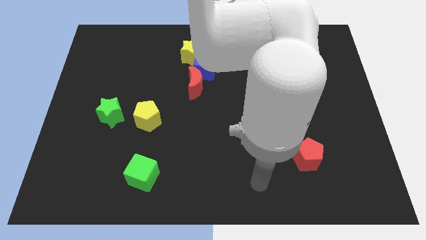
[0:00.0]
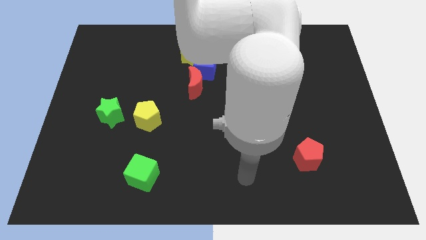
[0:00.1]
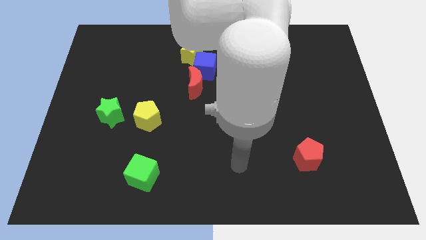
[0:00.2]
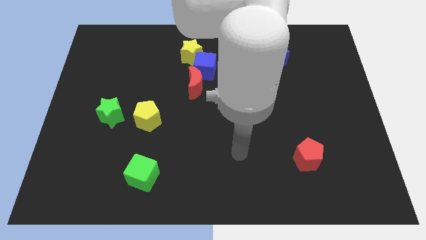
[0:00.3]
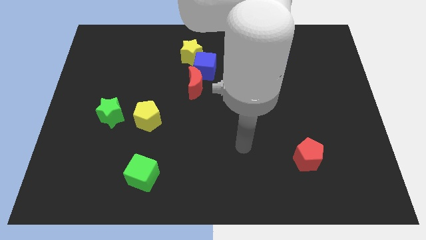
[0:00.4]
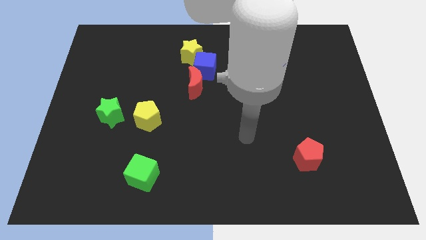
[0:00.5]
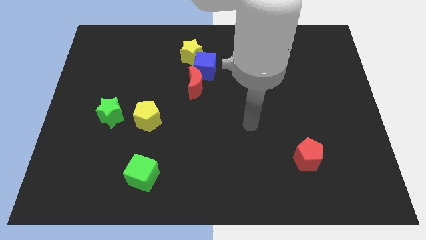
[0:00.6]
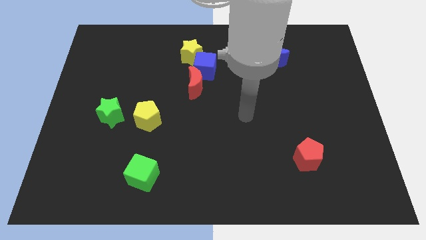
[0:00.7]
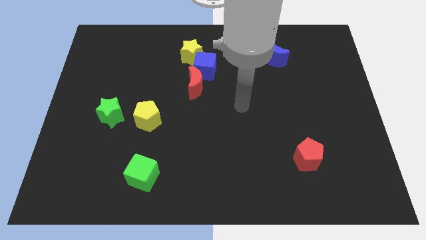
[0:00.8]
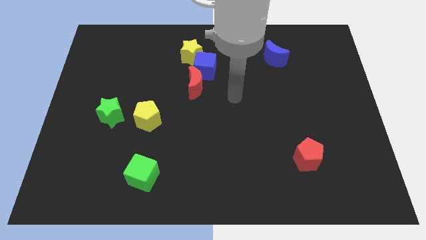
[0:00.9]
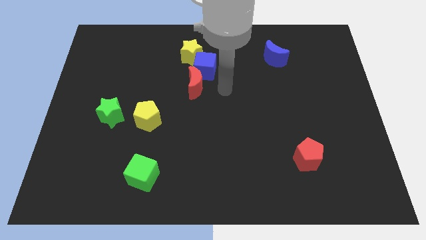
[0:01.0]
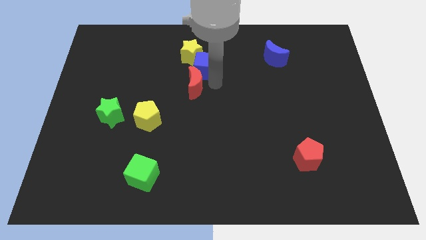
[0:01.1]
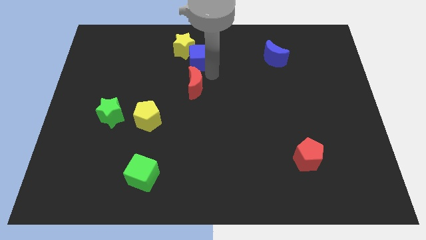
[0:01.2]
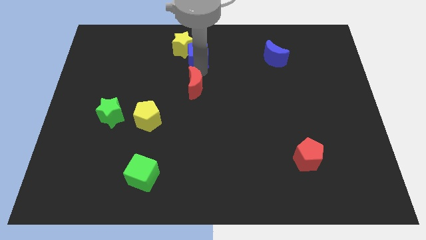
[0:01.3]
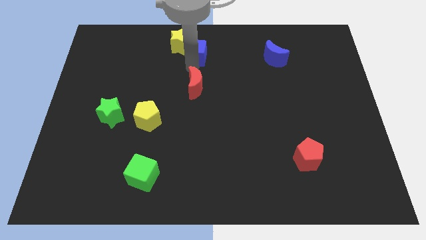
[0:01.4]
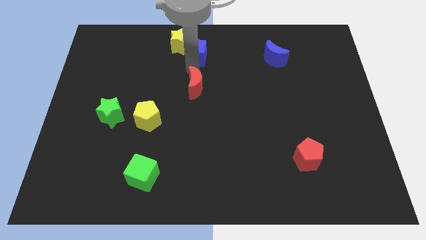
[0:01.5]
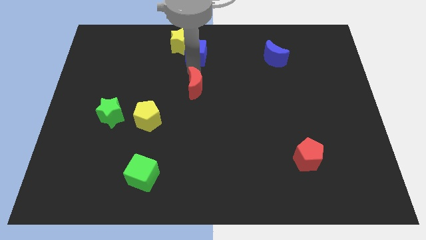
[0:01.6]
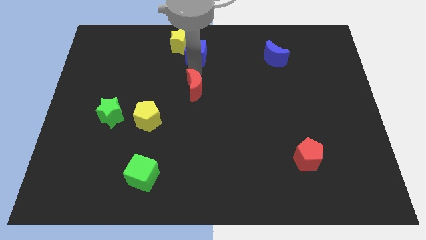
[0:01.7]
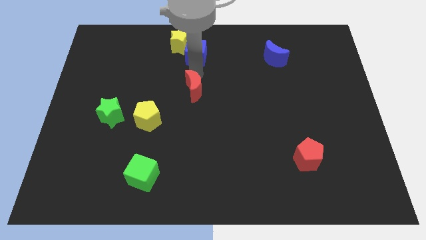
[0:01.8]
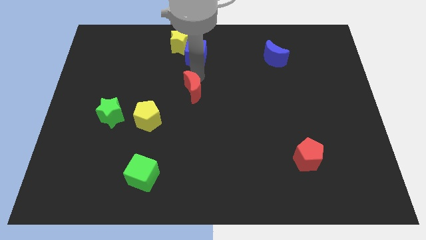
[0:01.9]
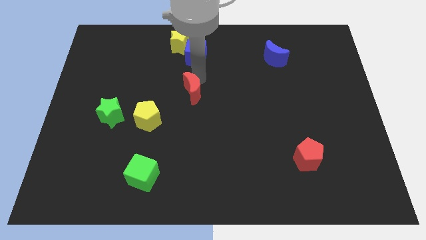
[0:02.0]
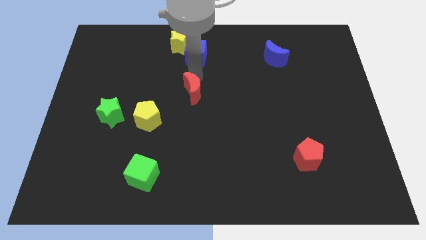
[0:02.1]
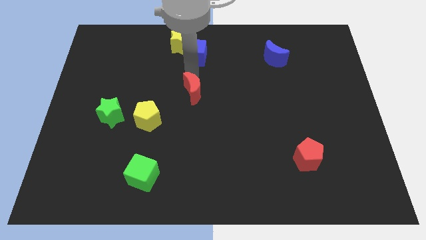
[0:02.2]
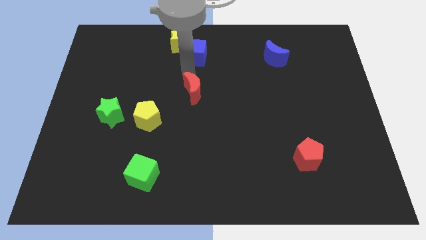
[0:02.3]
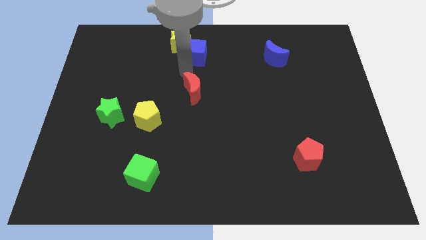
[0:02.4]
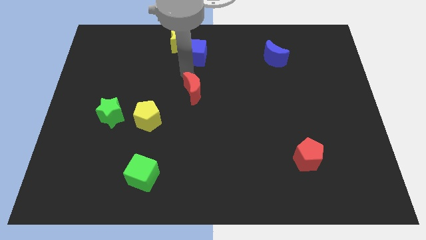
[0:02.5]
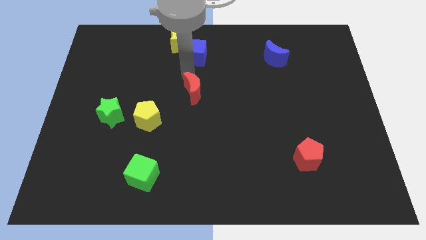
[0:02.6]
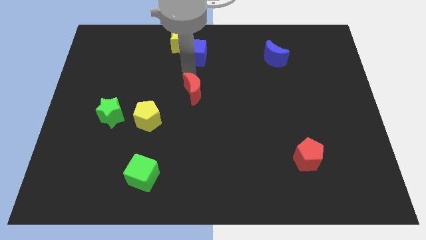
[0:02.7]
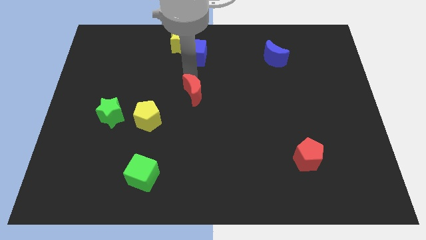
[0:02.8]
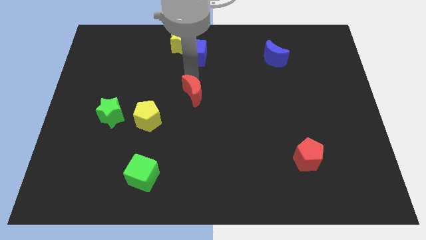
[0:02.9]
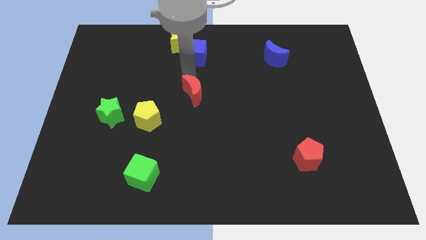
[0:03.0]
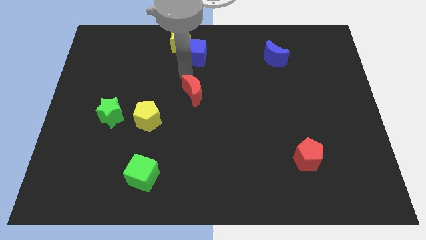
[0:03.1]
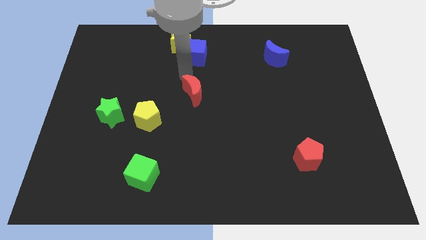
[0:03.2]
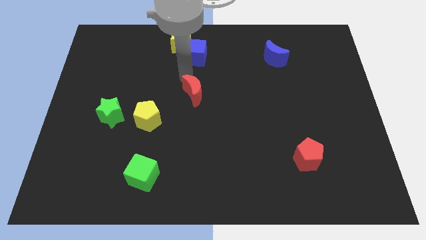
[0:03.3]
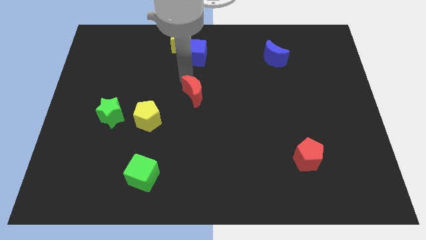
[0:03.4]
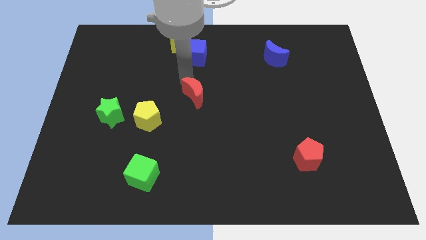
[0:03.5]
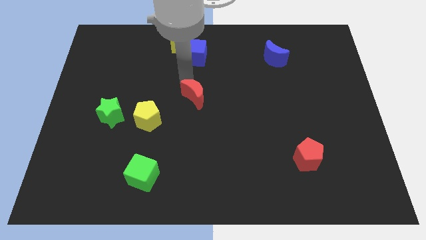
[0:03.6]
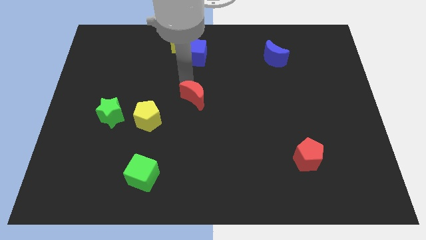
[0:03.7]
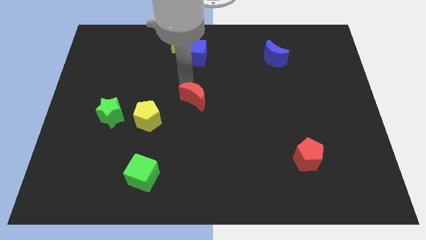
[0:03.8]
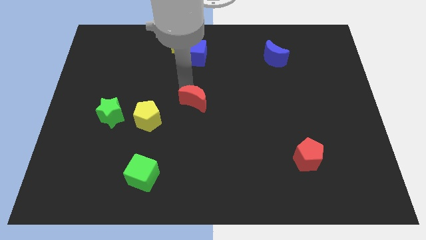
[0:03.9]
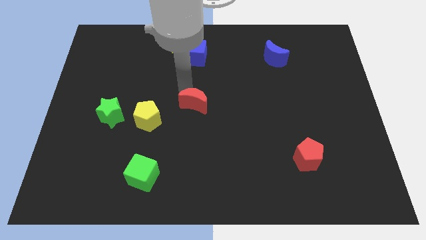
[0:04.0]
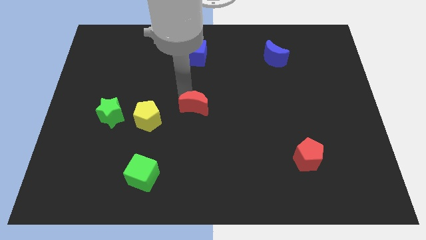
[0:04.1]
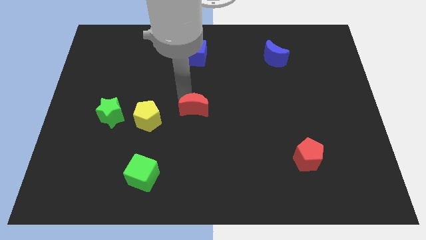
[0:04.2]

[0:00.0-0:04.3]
slightly slide the red moon downwards

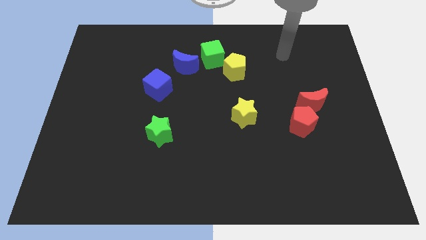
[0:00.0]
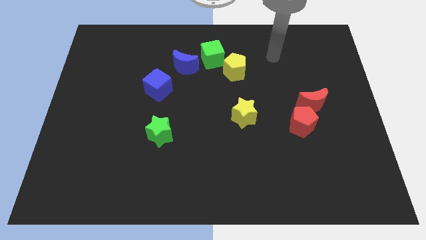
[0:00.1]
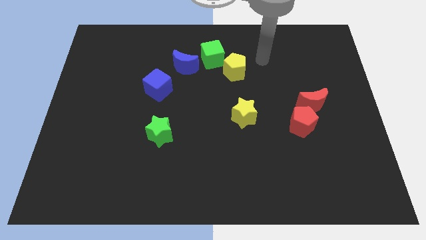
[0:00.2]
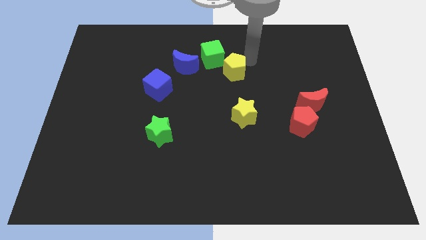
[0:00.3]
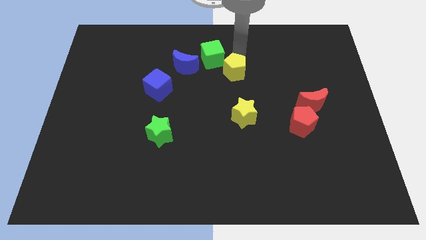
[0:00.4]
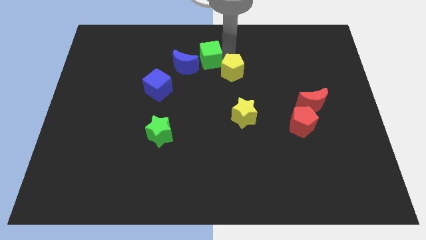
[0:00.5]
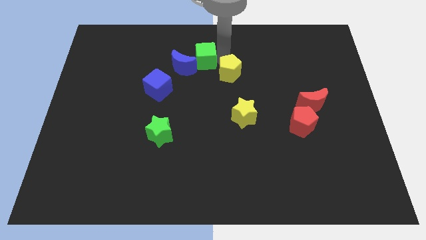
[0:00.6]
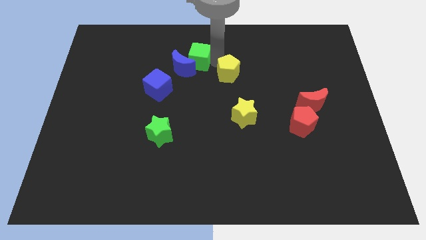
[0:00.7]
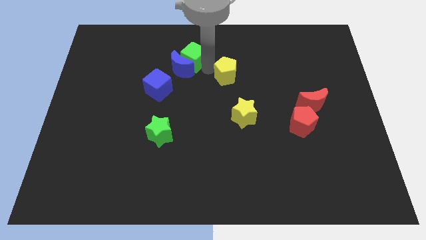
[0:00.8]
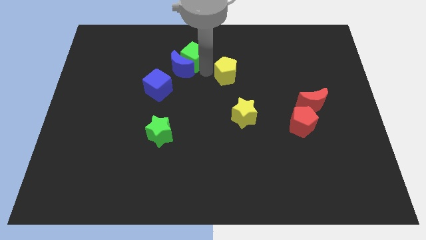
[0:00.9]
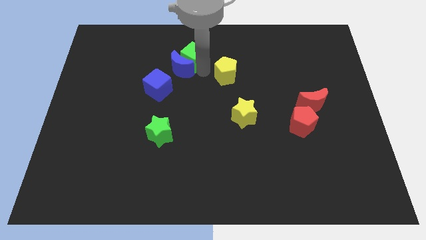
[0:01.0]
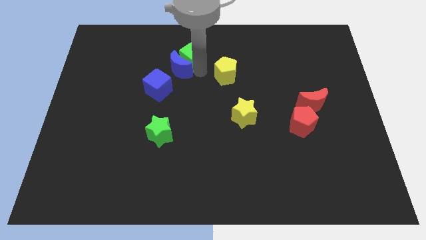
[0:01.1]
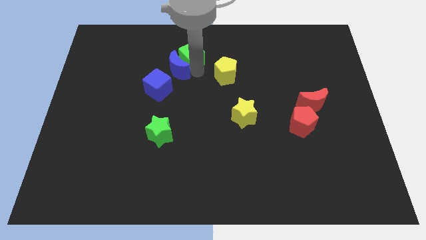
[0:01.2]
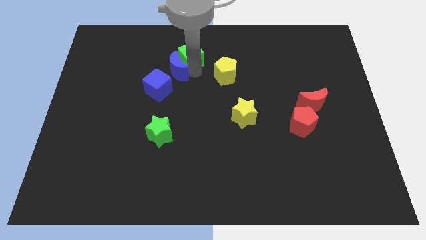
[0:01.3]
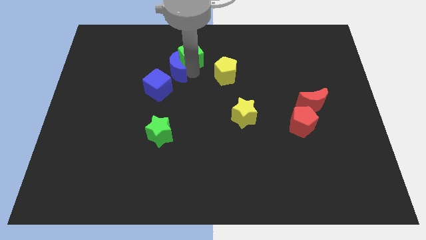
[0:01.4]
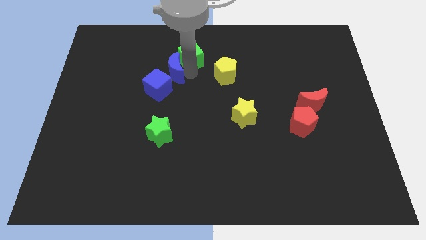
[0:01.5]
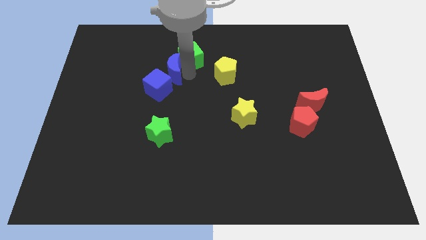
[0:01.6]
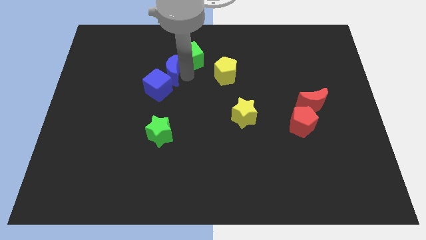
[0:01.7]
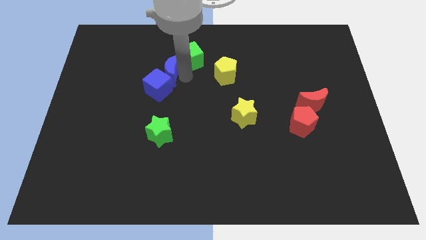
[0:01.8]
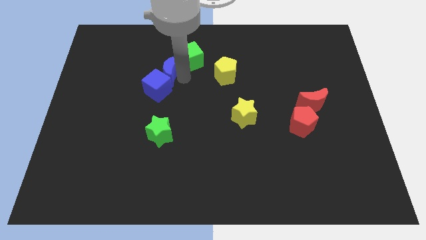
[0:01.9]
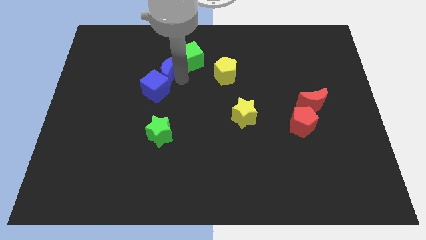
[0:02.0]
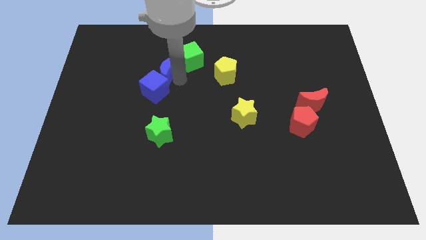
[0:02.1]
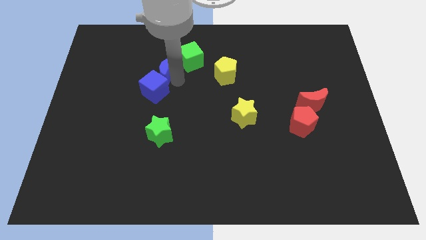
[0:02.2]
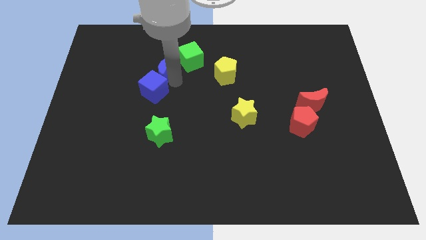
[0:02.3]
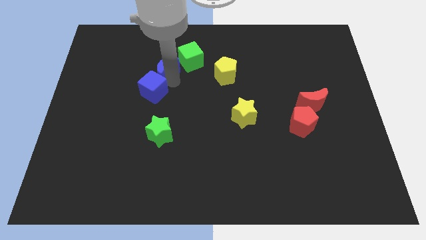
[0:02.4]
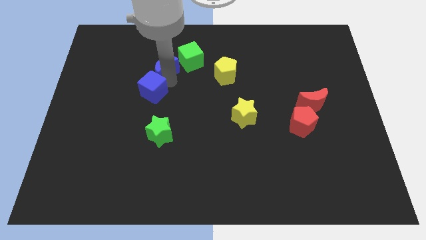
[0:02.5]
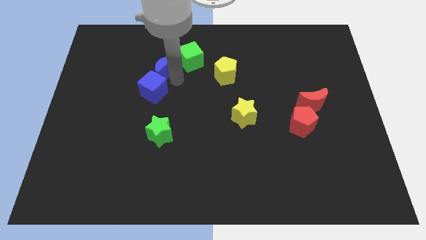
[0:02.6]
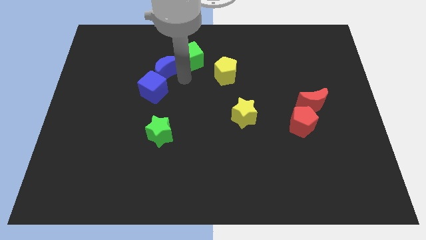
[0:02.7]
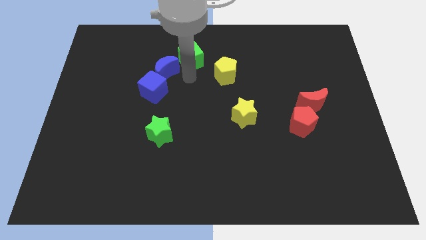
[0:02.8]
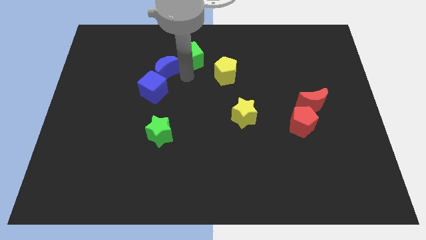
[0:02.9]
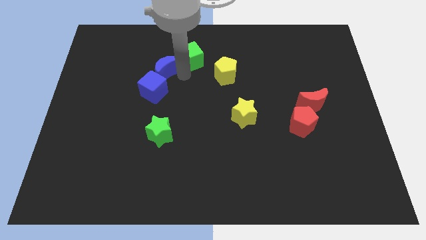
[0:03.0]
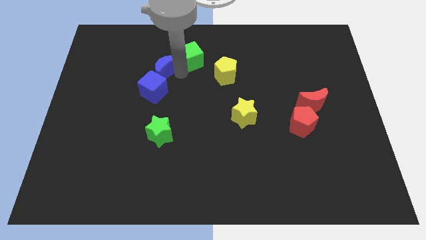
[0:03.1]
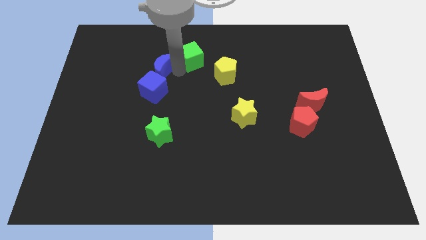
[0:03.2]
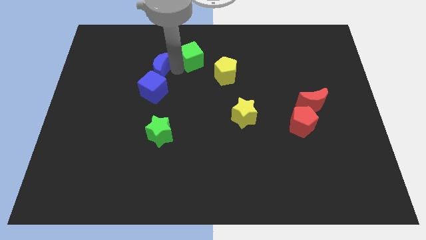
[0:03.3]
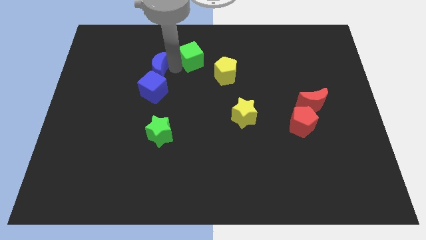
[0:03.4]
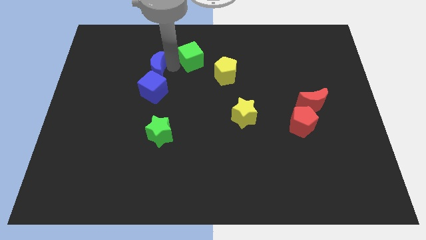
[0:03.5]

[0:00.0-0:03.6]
push the blue moon left slightly
